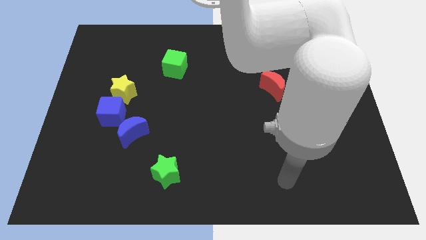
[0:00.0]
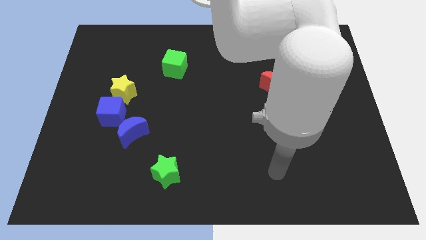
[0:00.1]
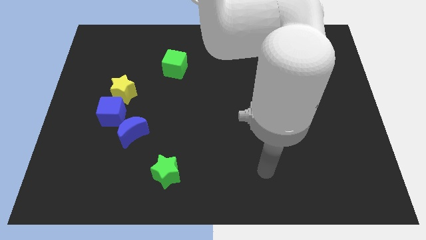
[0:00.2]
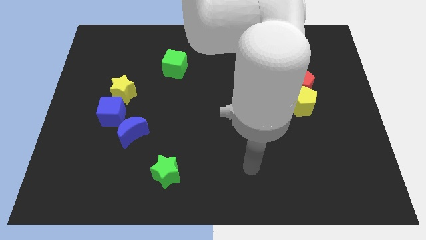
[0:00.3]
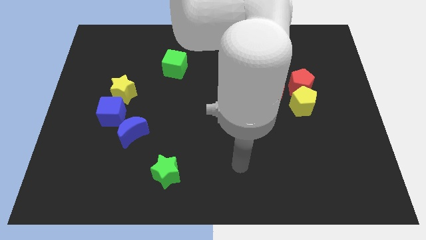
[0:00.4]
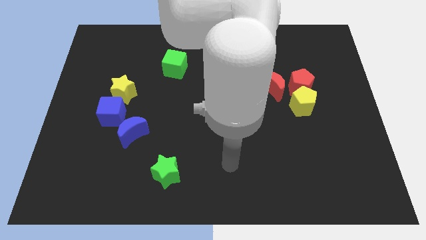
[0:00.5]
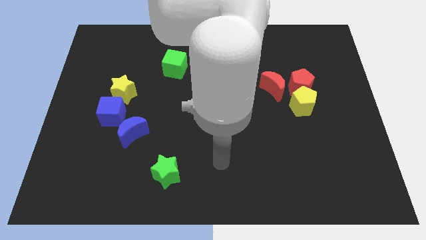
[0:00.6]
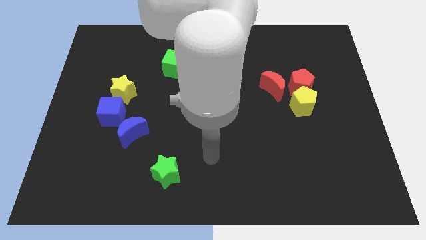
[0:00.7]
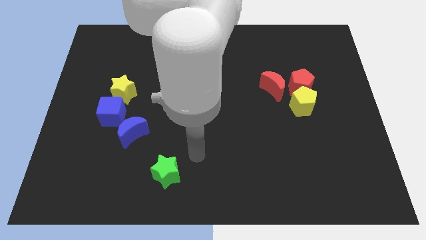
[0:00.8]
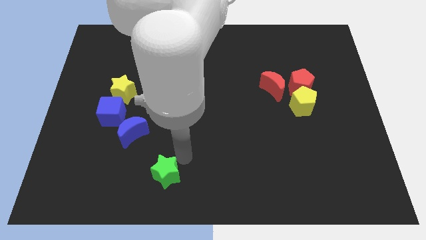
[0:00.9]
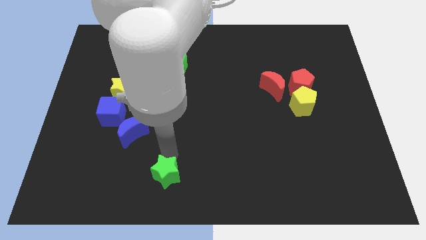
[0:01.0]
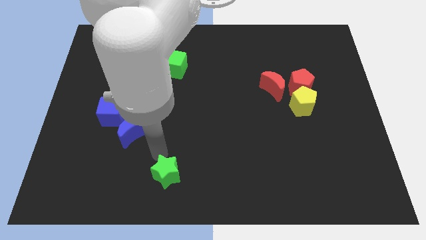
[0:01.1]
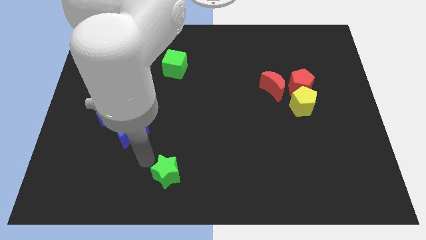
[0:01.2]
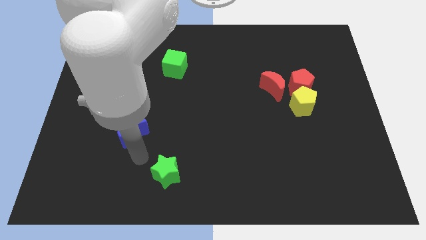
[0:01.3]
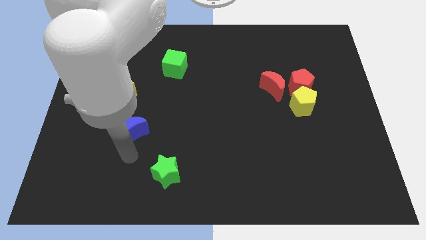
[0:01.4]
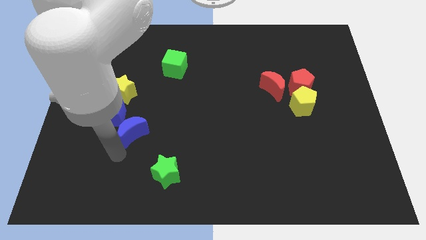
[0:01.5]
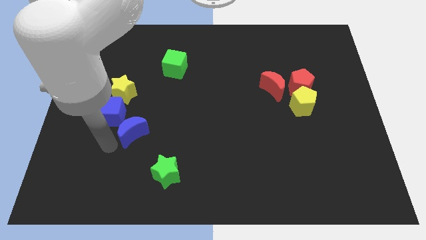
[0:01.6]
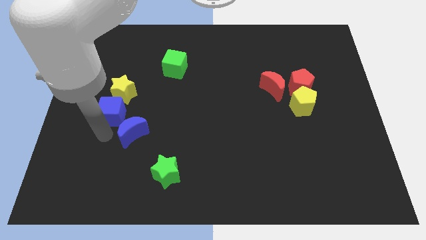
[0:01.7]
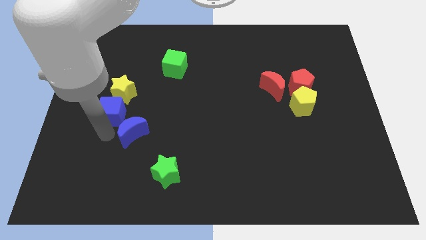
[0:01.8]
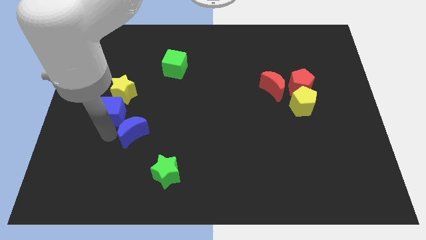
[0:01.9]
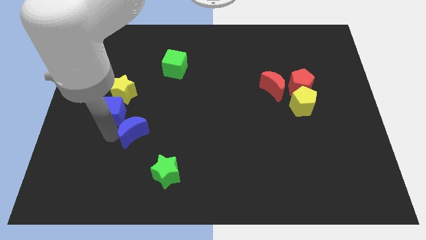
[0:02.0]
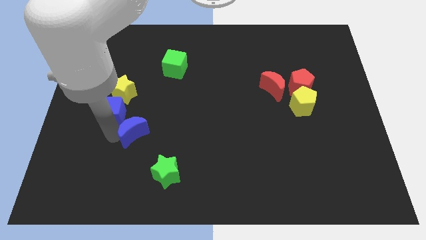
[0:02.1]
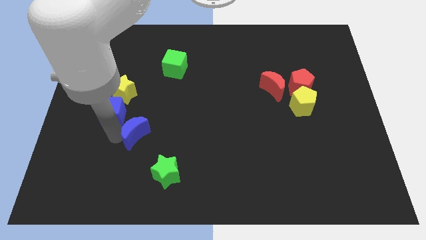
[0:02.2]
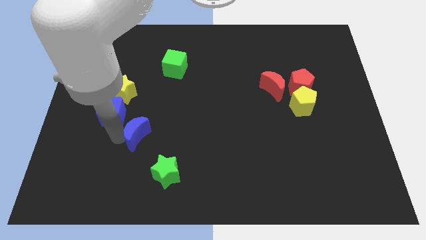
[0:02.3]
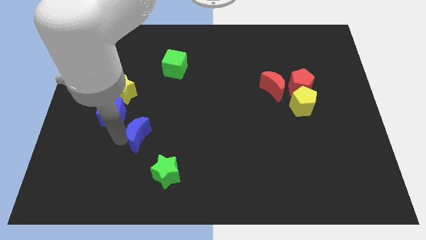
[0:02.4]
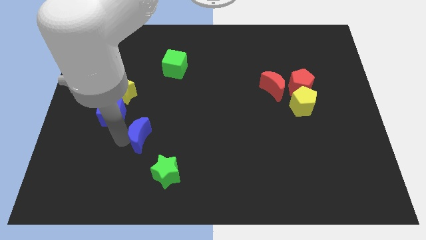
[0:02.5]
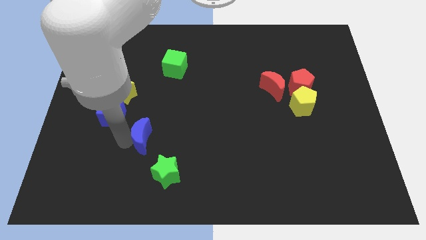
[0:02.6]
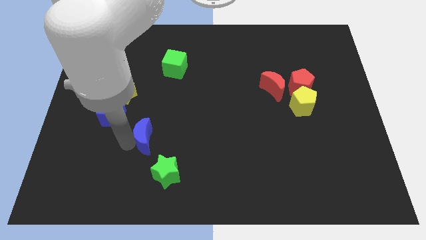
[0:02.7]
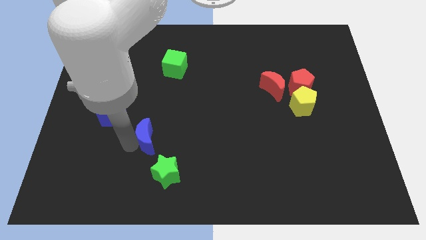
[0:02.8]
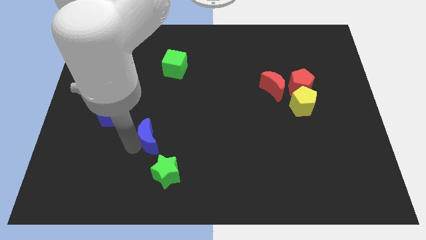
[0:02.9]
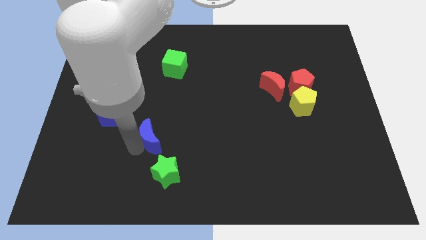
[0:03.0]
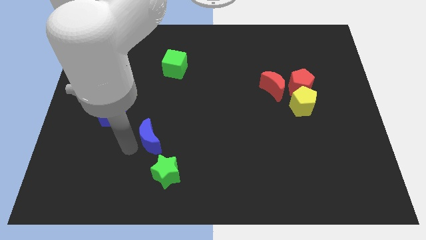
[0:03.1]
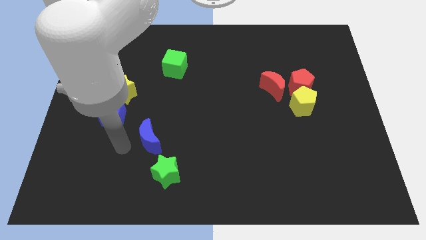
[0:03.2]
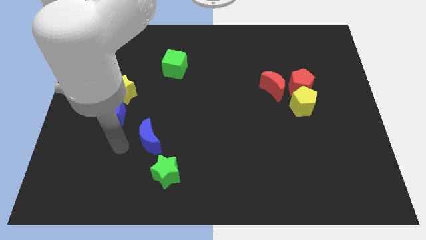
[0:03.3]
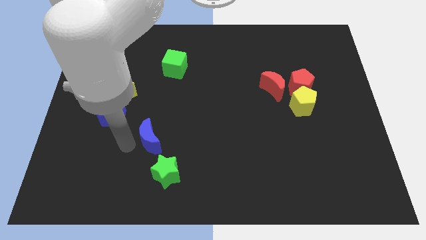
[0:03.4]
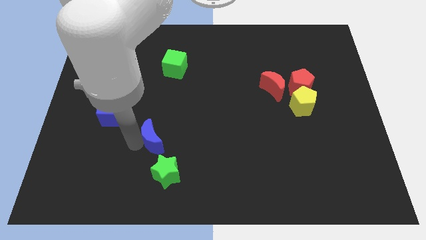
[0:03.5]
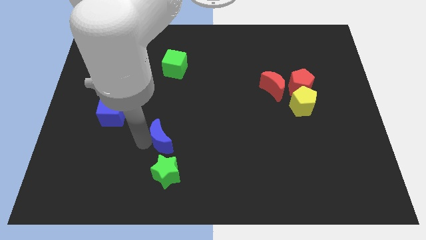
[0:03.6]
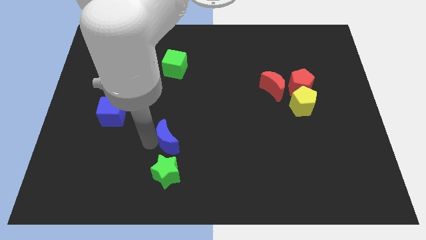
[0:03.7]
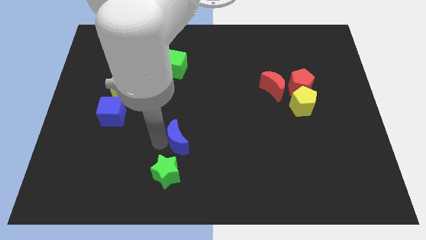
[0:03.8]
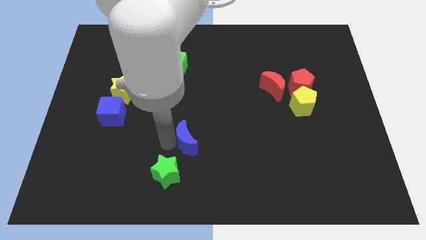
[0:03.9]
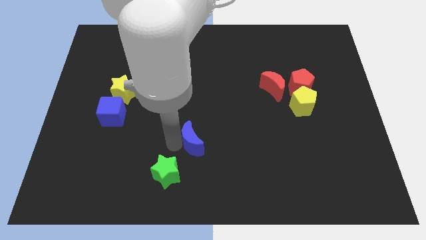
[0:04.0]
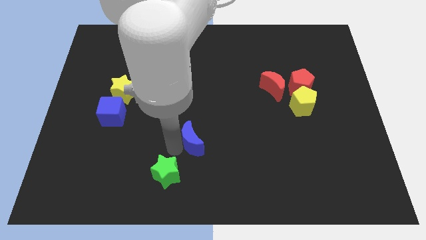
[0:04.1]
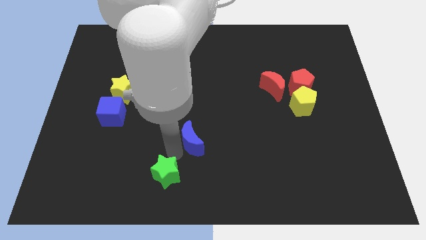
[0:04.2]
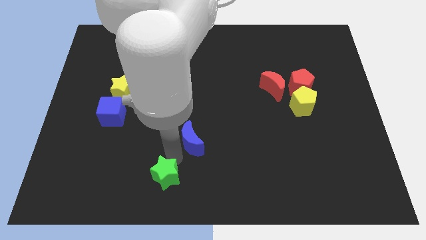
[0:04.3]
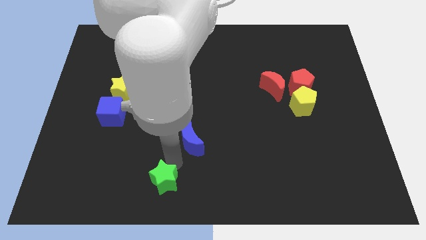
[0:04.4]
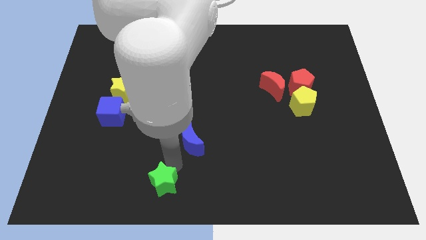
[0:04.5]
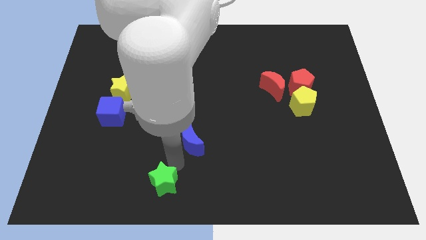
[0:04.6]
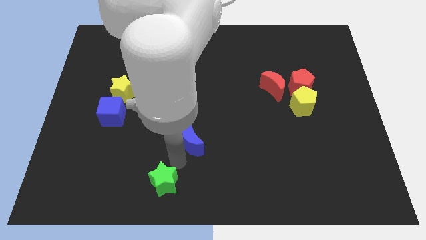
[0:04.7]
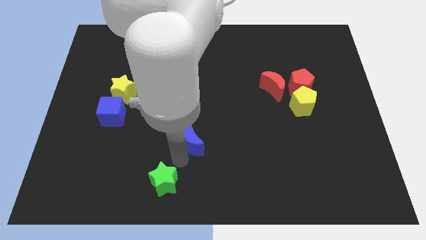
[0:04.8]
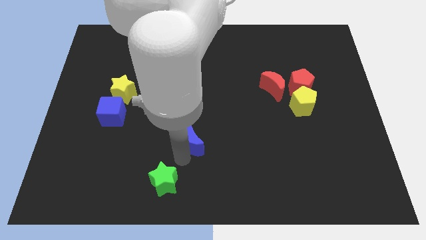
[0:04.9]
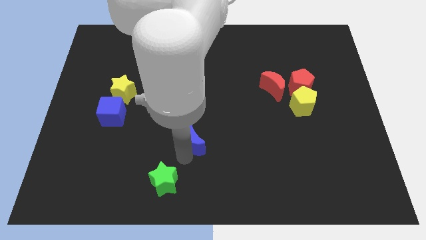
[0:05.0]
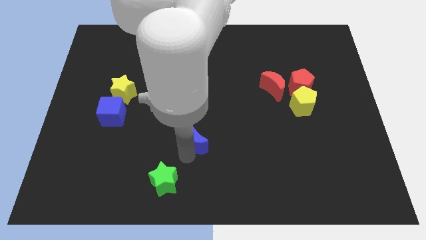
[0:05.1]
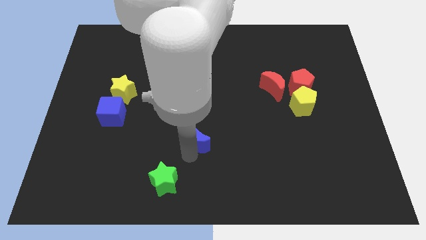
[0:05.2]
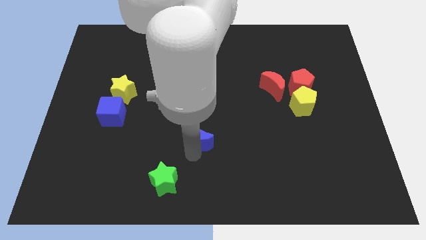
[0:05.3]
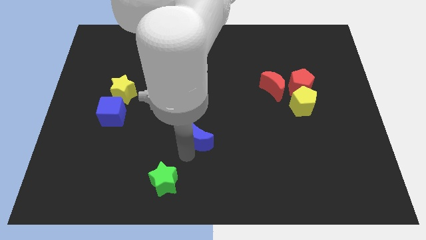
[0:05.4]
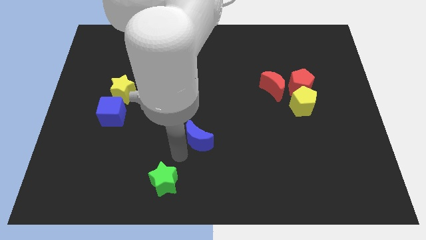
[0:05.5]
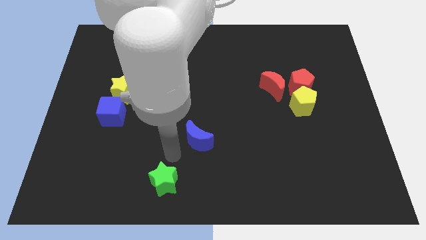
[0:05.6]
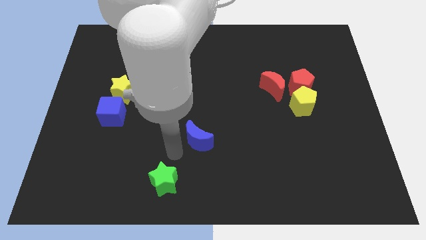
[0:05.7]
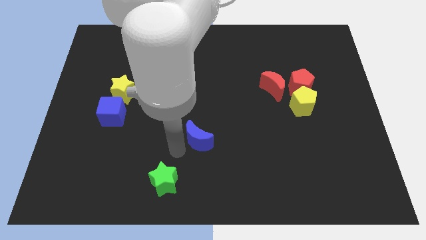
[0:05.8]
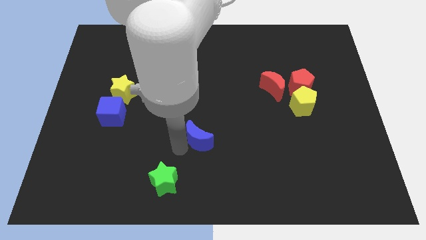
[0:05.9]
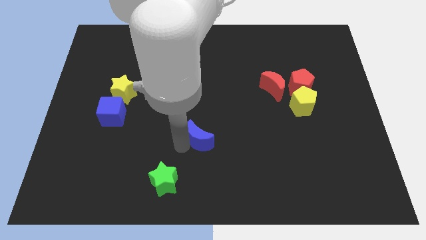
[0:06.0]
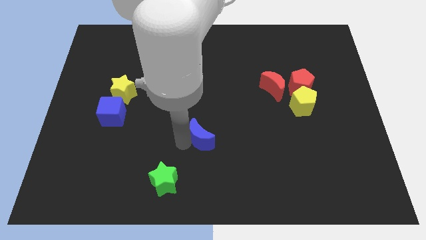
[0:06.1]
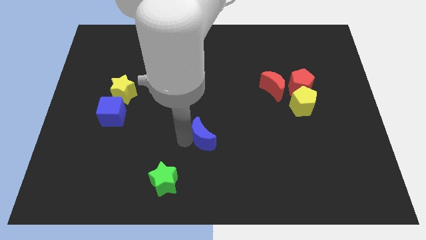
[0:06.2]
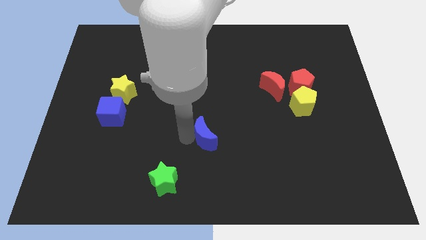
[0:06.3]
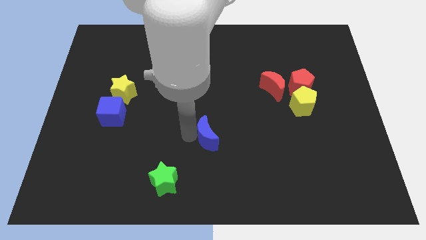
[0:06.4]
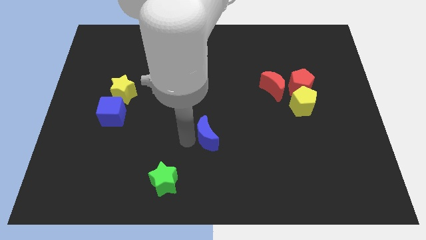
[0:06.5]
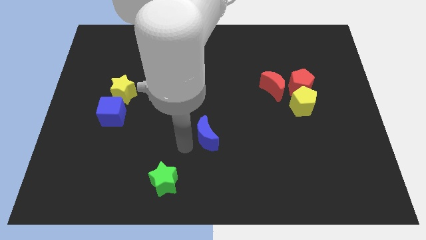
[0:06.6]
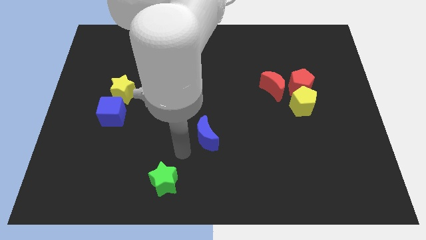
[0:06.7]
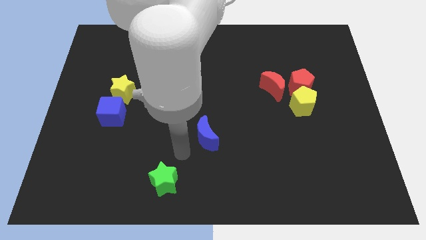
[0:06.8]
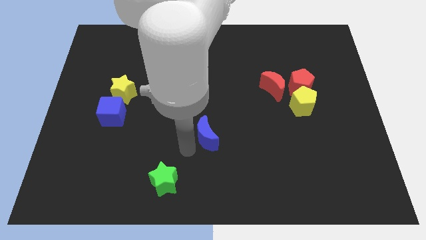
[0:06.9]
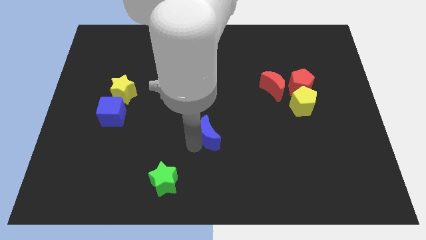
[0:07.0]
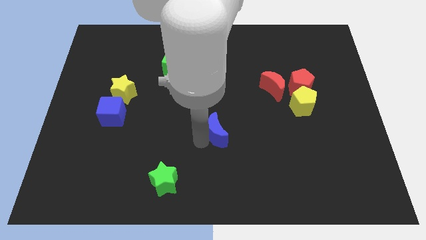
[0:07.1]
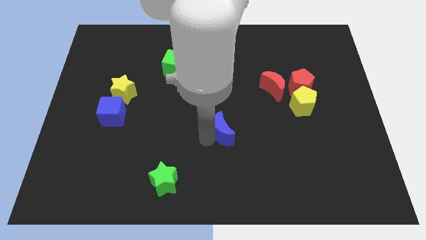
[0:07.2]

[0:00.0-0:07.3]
slide the blue moon to the right

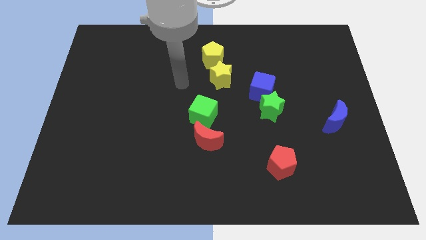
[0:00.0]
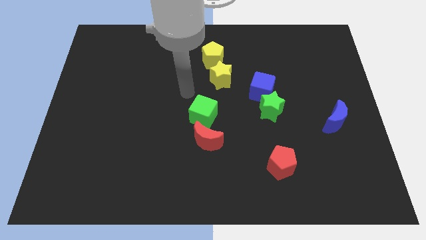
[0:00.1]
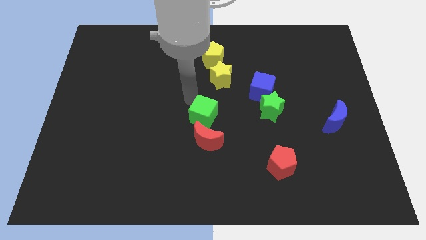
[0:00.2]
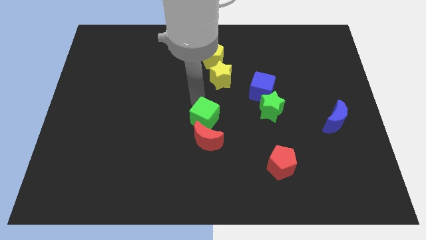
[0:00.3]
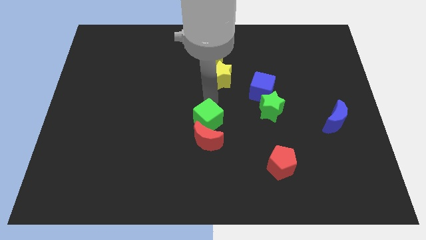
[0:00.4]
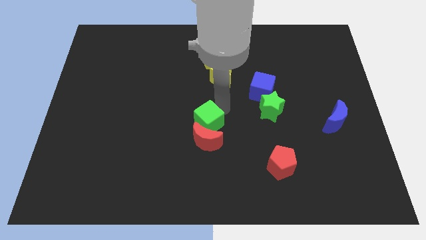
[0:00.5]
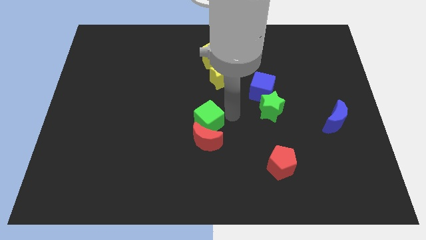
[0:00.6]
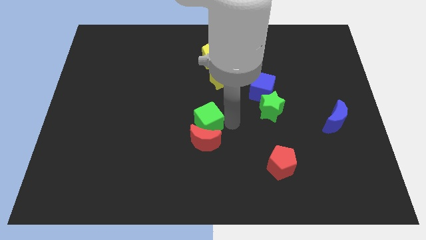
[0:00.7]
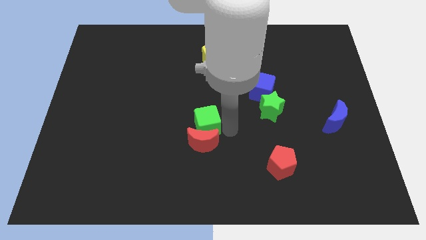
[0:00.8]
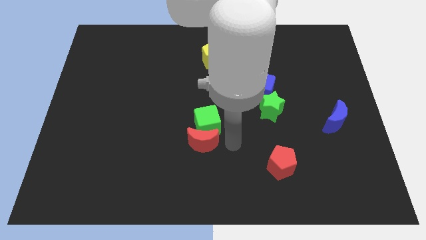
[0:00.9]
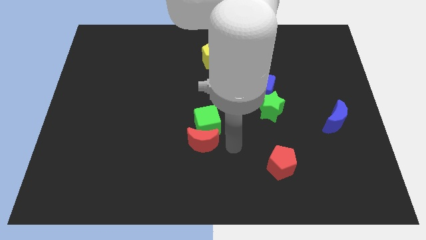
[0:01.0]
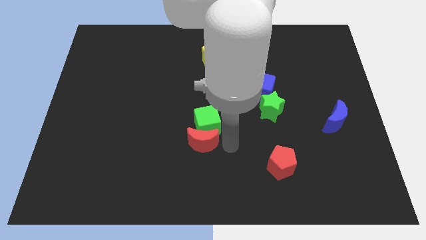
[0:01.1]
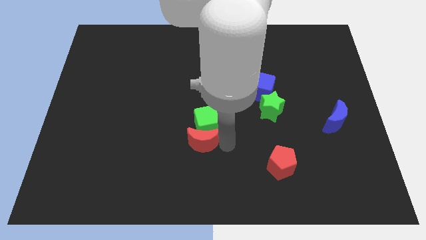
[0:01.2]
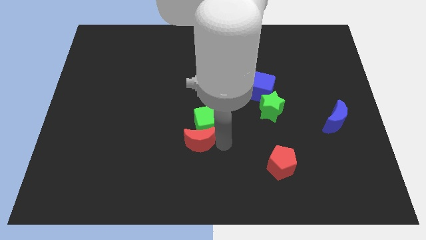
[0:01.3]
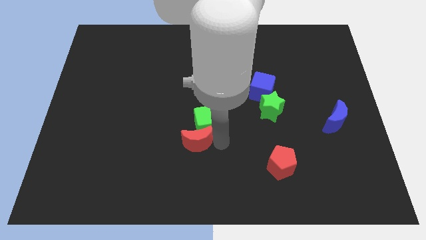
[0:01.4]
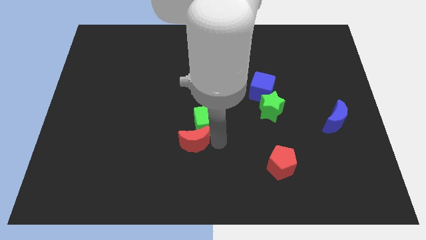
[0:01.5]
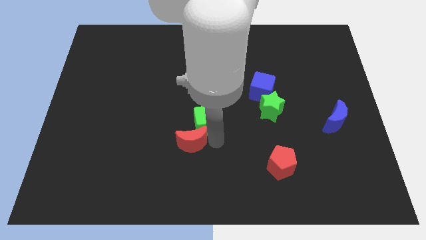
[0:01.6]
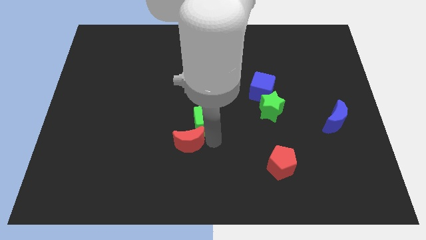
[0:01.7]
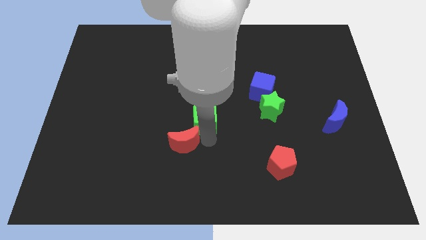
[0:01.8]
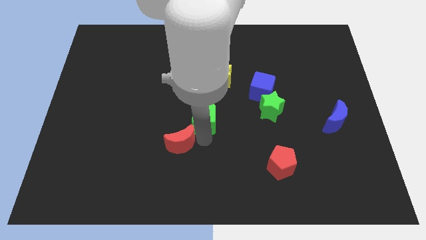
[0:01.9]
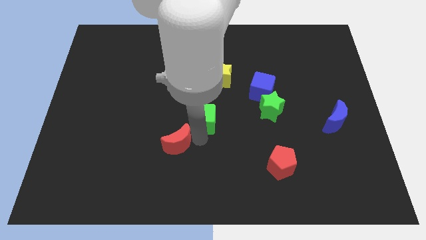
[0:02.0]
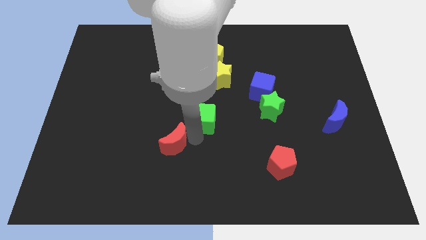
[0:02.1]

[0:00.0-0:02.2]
slightly slide the red moon to the left
